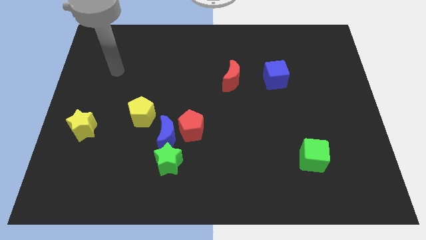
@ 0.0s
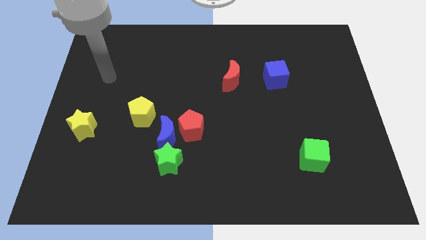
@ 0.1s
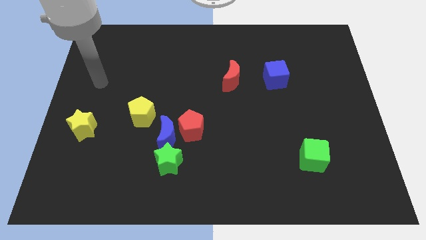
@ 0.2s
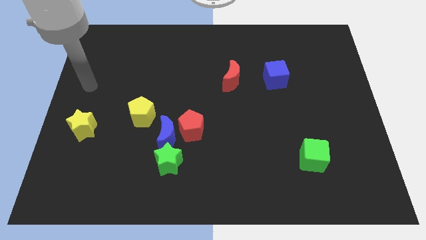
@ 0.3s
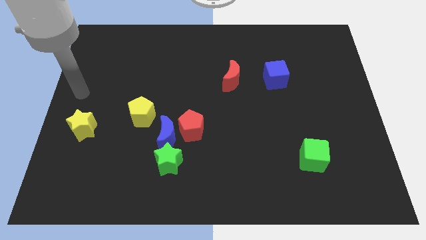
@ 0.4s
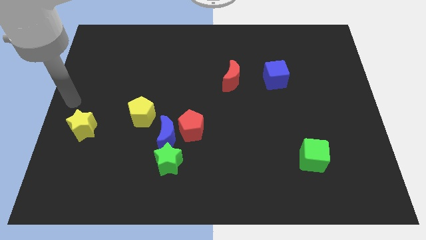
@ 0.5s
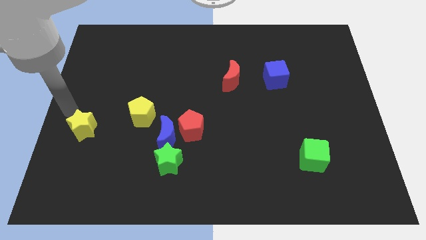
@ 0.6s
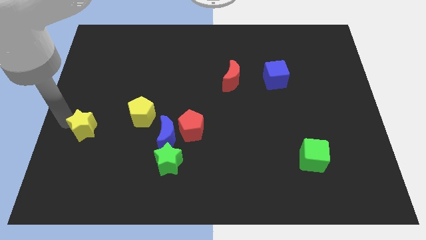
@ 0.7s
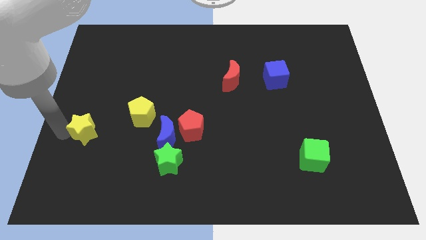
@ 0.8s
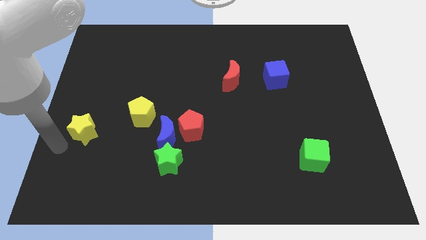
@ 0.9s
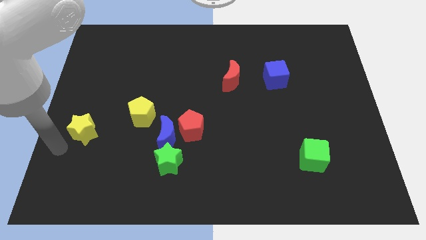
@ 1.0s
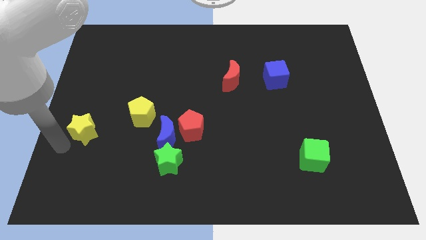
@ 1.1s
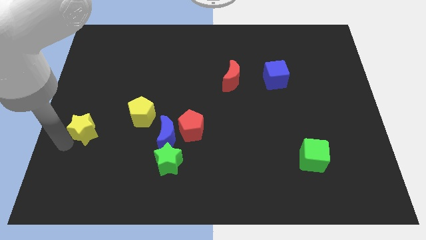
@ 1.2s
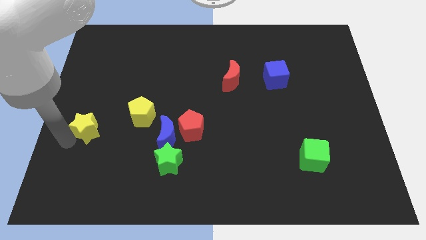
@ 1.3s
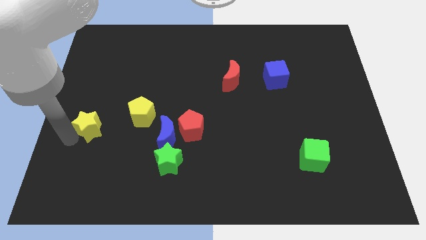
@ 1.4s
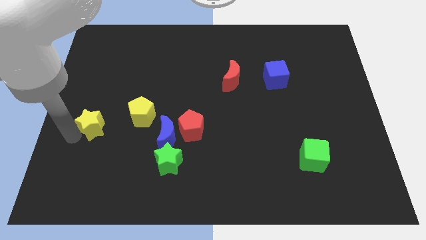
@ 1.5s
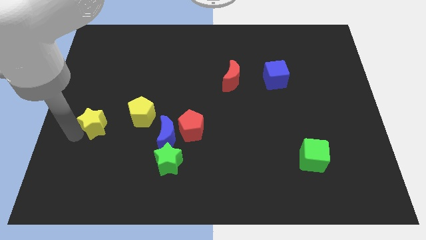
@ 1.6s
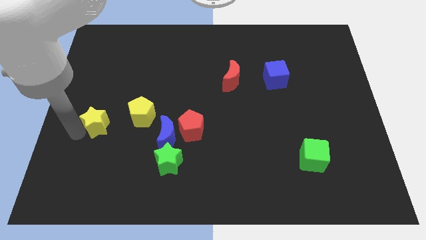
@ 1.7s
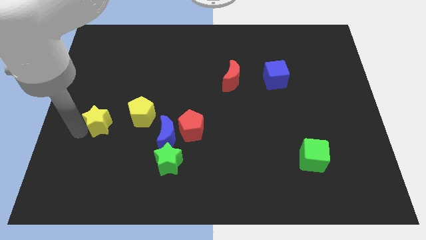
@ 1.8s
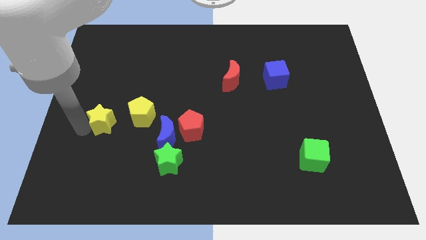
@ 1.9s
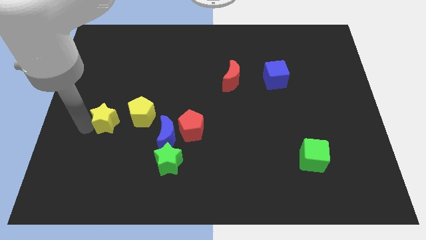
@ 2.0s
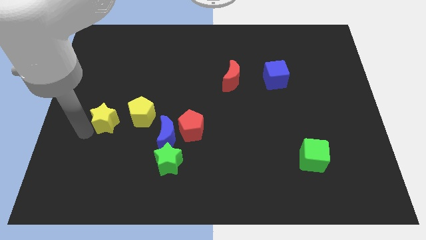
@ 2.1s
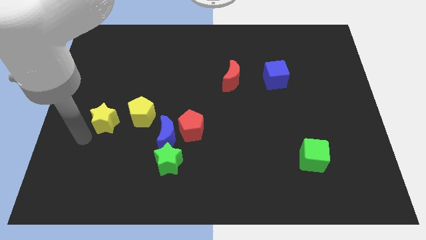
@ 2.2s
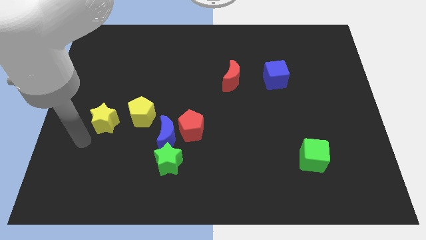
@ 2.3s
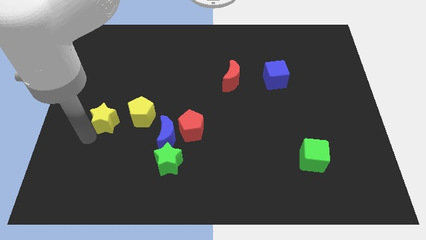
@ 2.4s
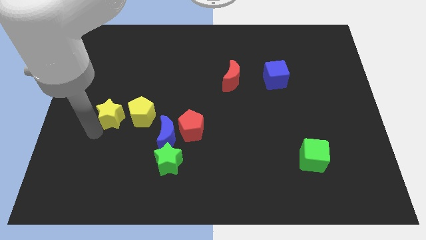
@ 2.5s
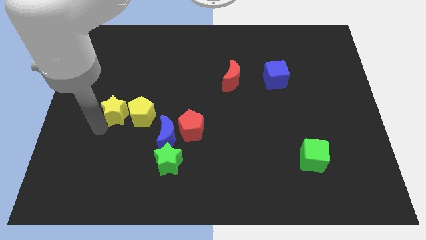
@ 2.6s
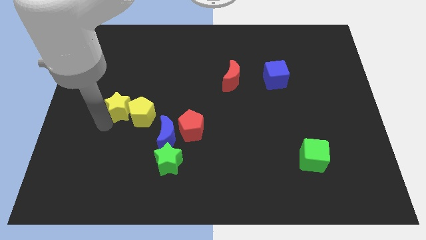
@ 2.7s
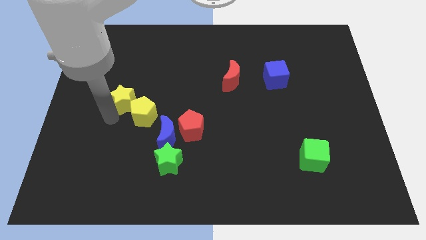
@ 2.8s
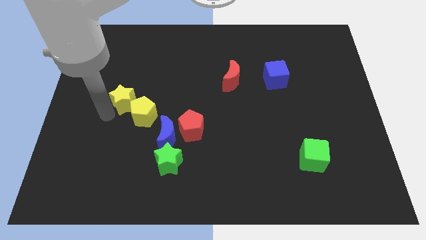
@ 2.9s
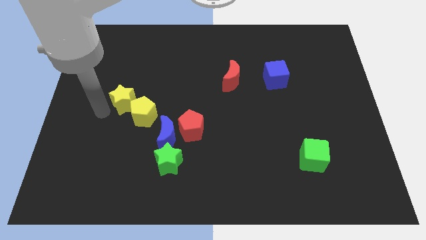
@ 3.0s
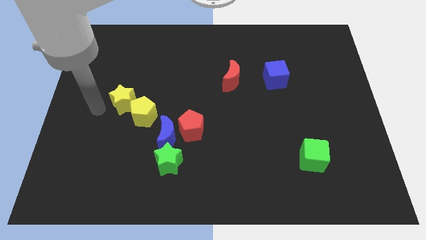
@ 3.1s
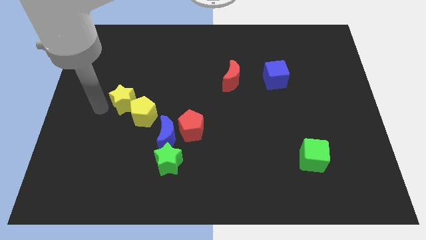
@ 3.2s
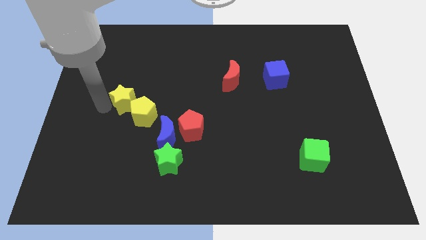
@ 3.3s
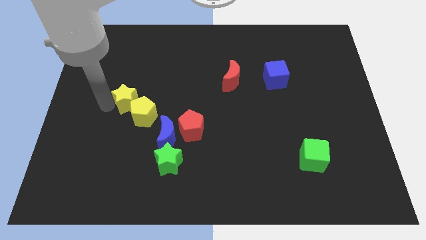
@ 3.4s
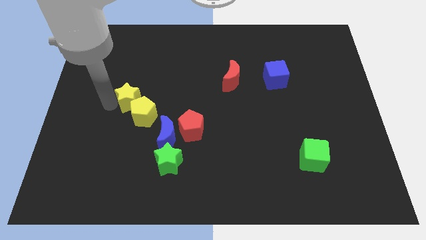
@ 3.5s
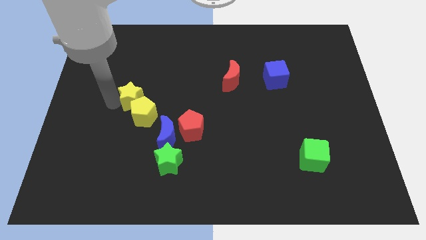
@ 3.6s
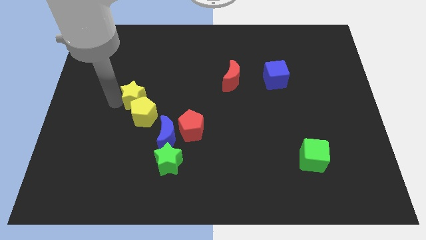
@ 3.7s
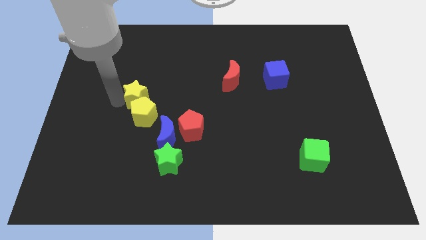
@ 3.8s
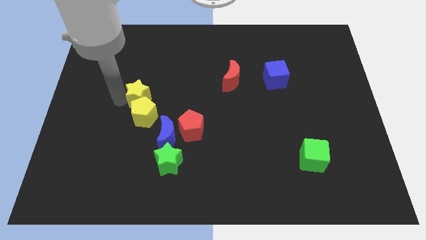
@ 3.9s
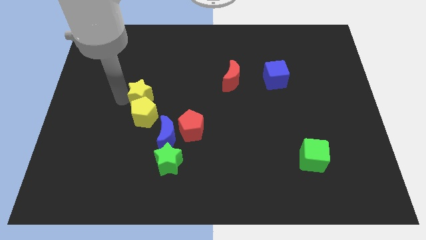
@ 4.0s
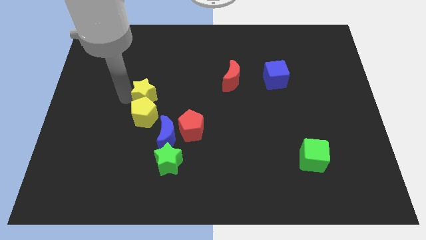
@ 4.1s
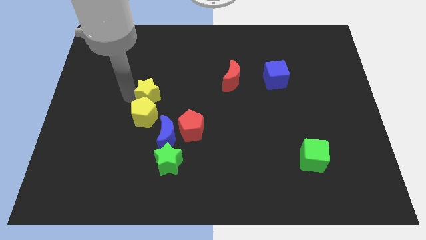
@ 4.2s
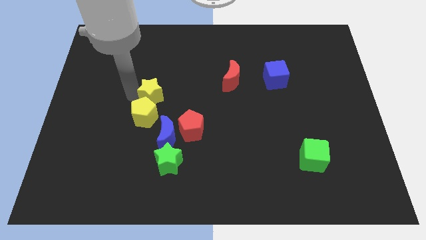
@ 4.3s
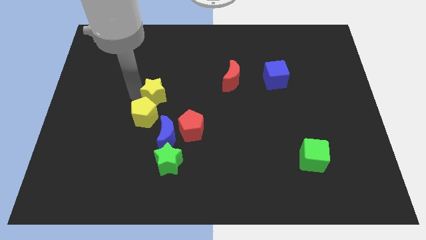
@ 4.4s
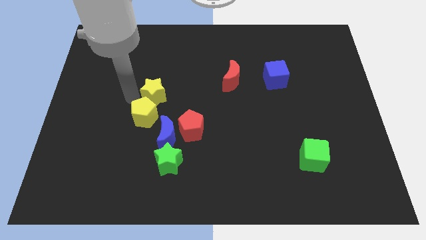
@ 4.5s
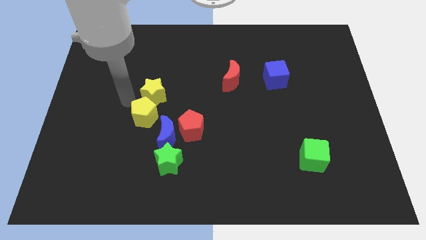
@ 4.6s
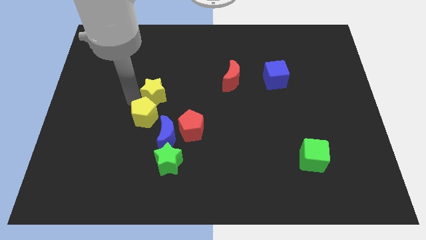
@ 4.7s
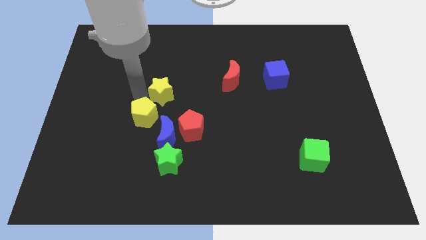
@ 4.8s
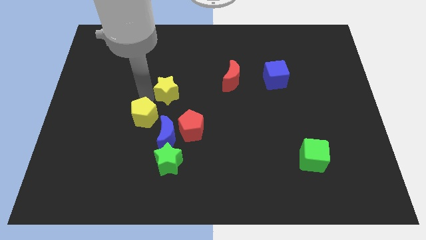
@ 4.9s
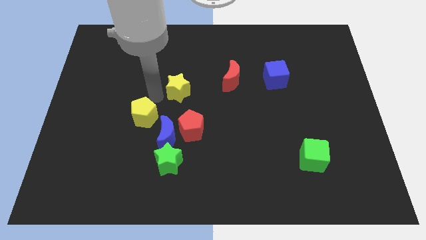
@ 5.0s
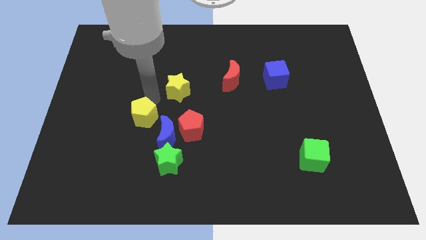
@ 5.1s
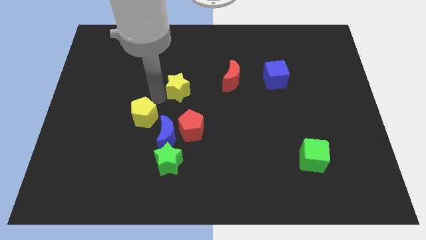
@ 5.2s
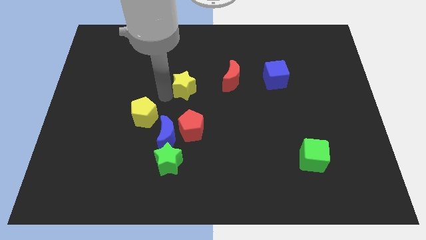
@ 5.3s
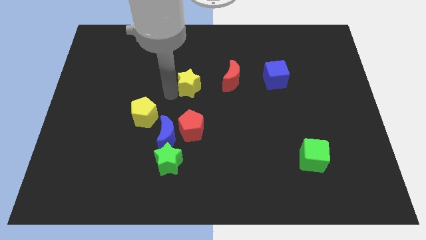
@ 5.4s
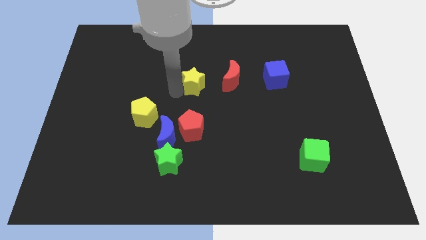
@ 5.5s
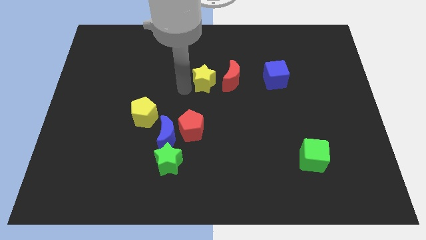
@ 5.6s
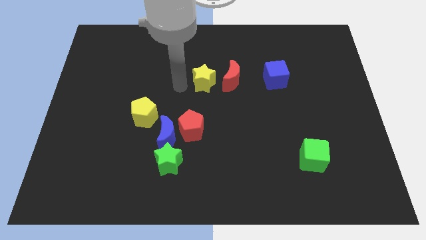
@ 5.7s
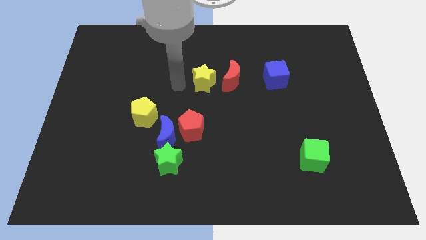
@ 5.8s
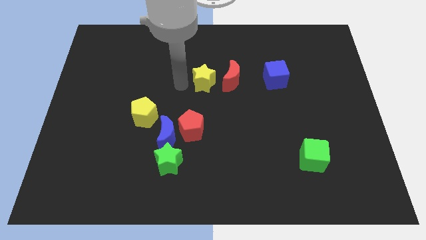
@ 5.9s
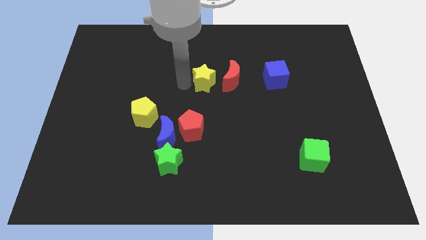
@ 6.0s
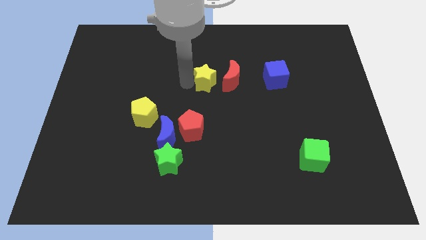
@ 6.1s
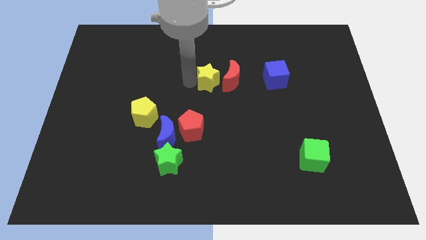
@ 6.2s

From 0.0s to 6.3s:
slide the yellow star towards the red moon

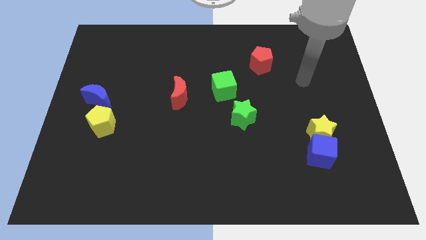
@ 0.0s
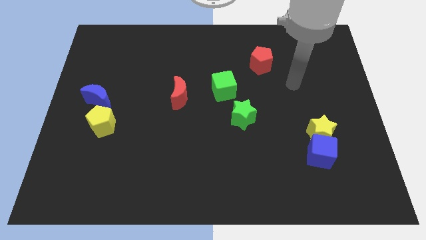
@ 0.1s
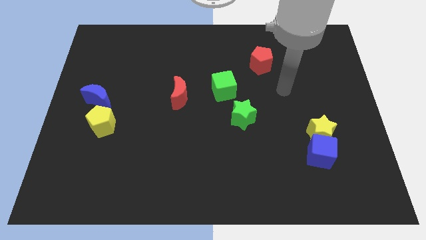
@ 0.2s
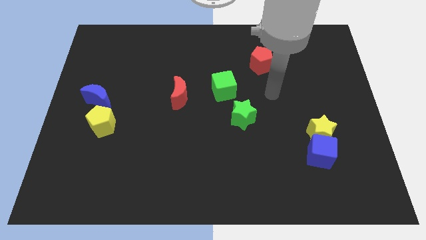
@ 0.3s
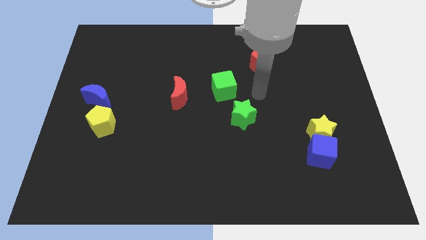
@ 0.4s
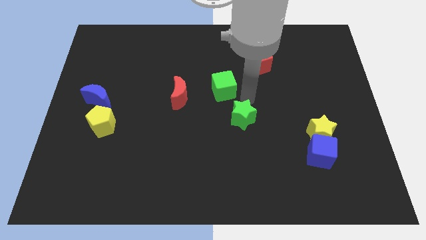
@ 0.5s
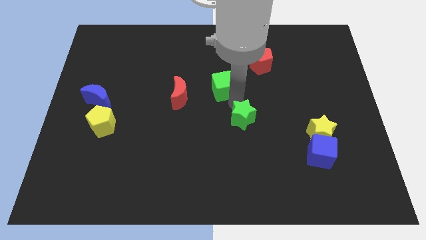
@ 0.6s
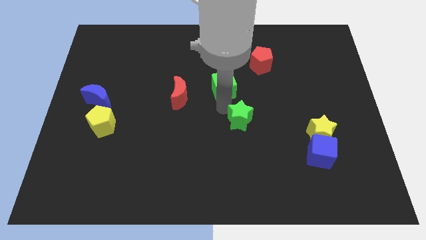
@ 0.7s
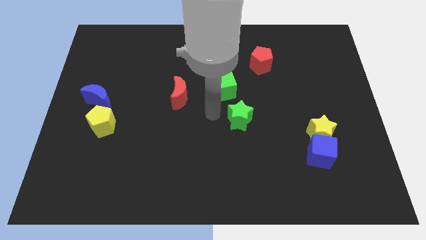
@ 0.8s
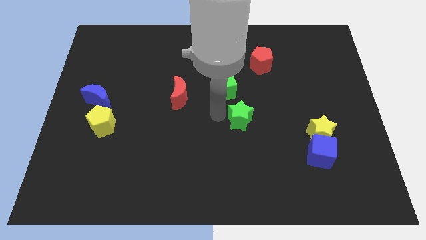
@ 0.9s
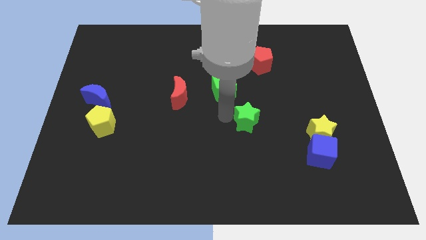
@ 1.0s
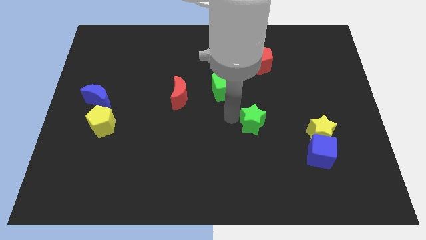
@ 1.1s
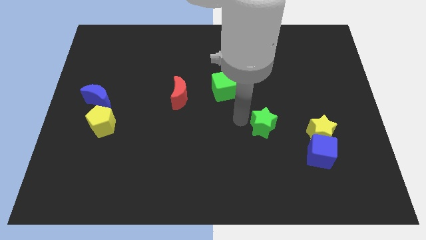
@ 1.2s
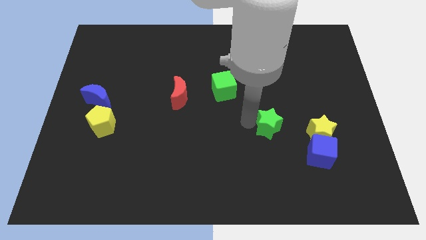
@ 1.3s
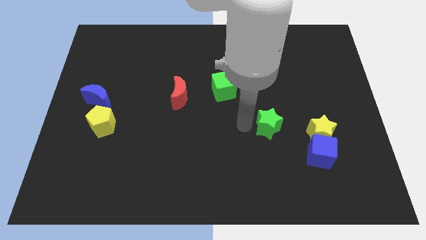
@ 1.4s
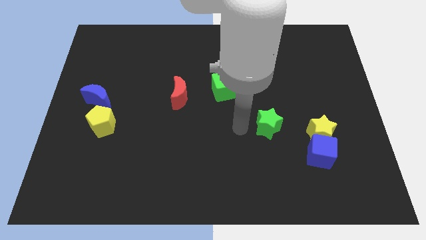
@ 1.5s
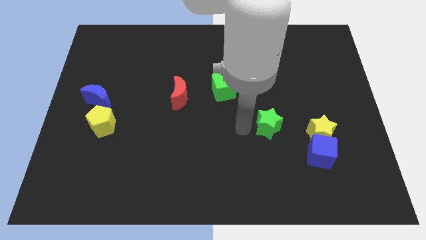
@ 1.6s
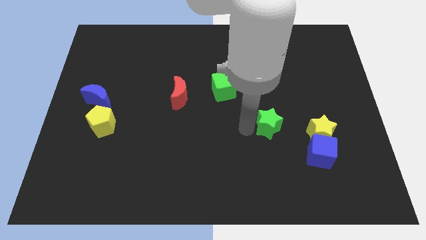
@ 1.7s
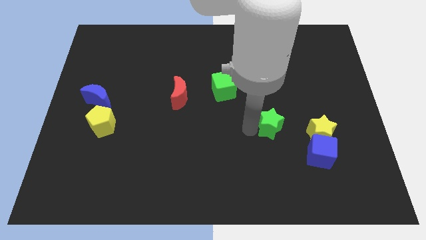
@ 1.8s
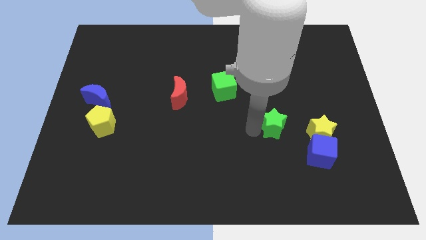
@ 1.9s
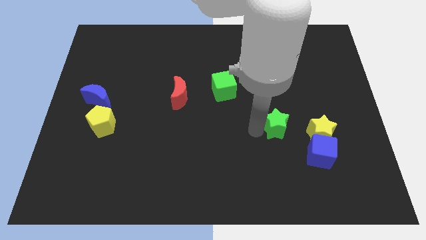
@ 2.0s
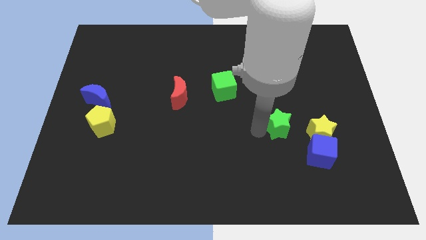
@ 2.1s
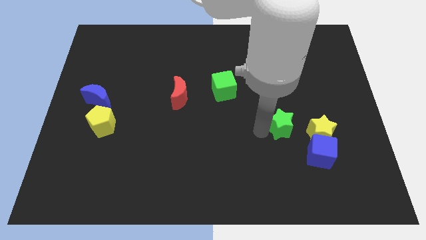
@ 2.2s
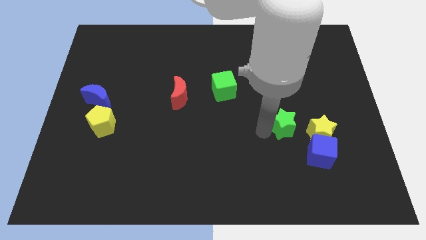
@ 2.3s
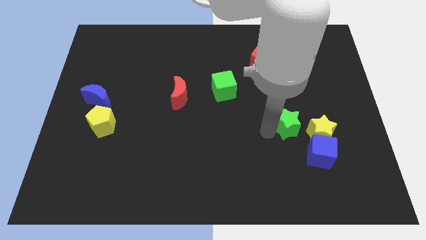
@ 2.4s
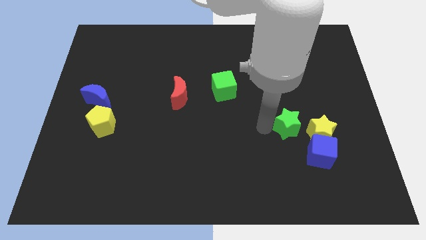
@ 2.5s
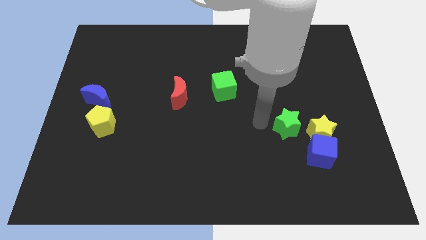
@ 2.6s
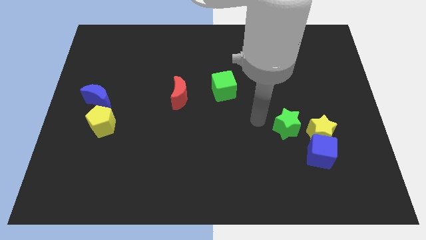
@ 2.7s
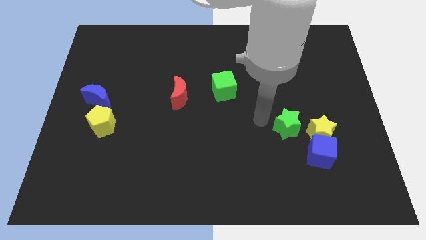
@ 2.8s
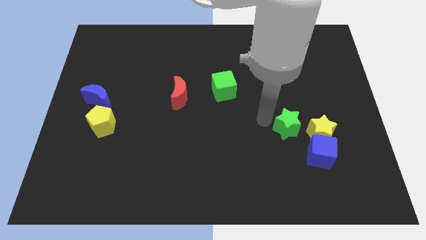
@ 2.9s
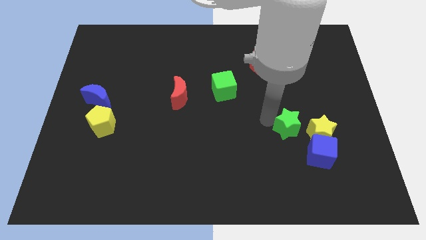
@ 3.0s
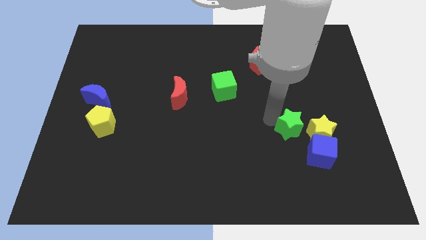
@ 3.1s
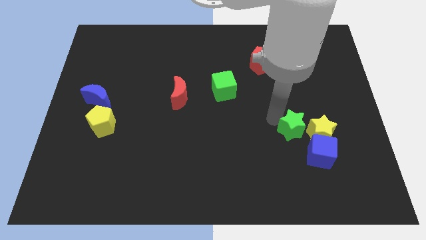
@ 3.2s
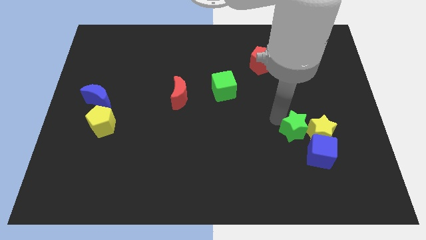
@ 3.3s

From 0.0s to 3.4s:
move the green star towards the yellow star
